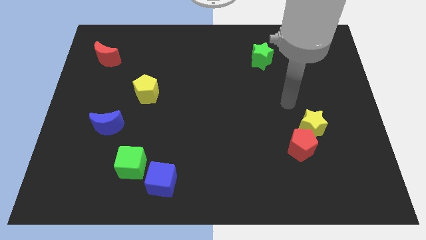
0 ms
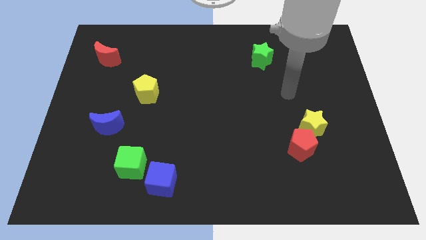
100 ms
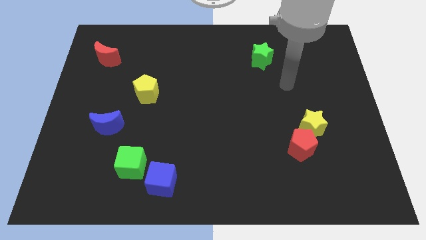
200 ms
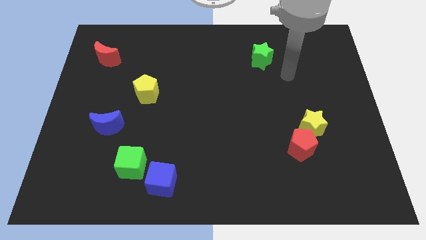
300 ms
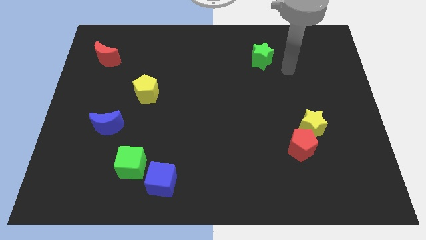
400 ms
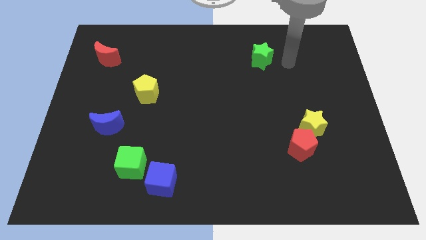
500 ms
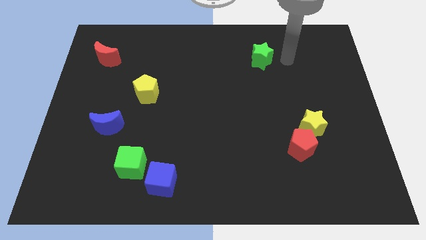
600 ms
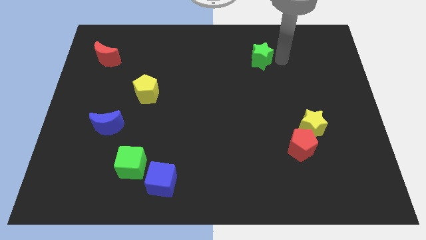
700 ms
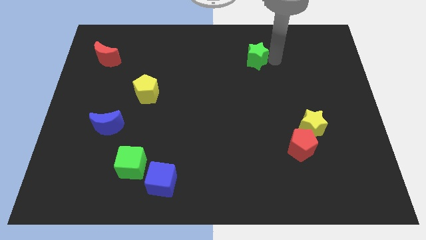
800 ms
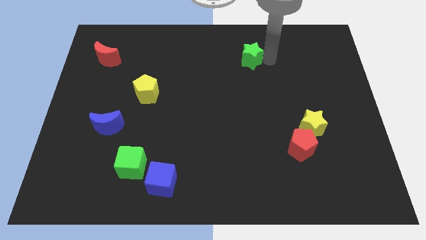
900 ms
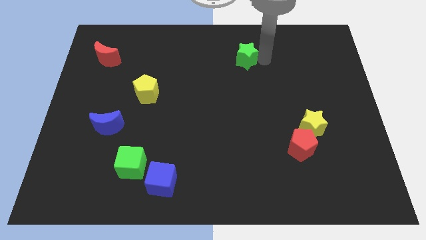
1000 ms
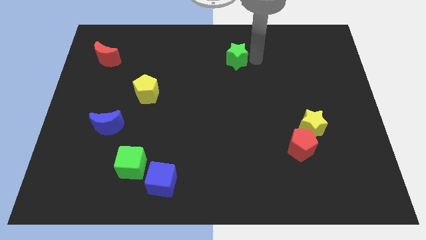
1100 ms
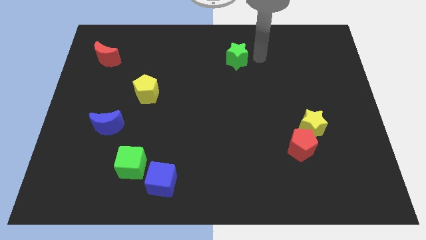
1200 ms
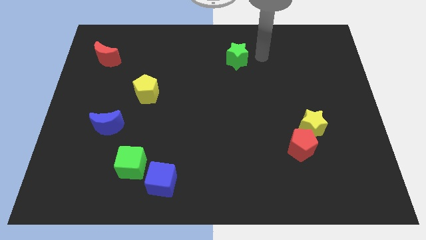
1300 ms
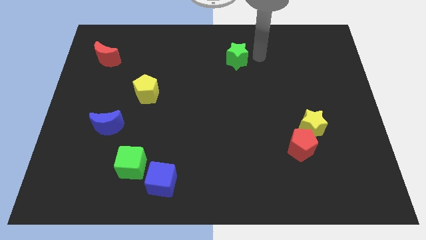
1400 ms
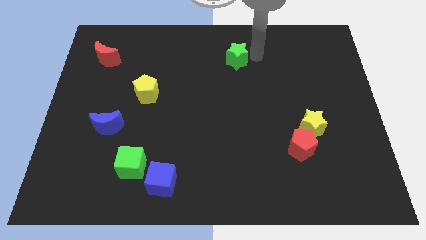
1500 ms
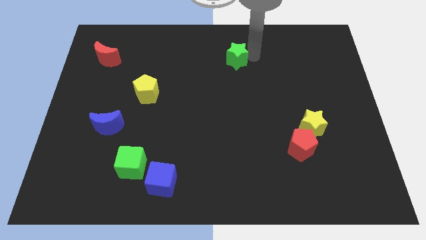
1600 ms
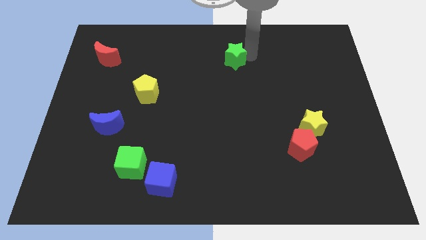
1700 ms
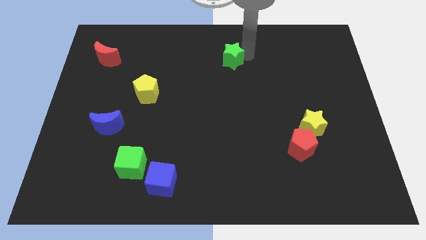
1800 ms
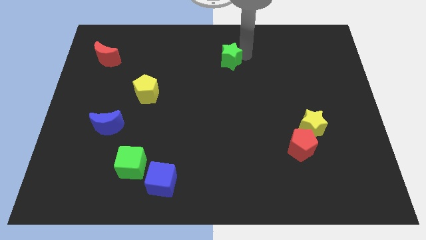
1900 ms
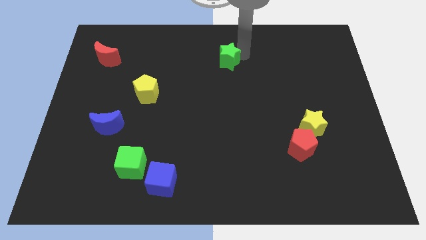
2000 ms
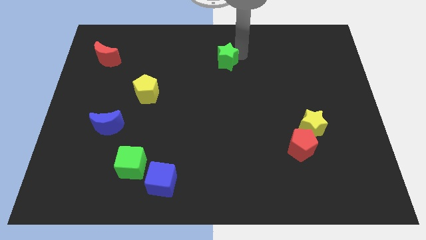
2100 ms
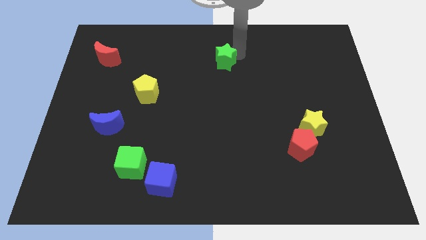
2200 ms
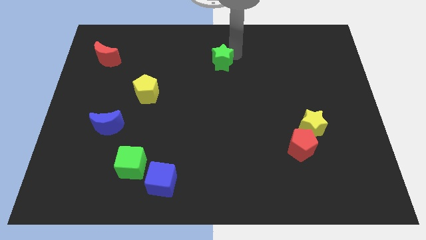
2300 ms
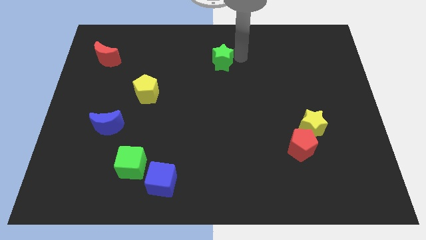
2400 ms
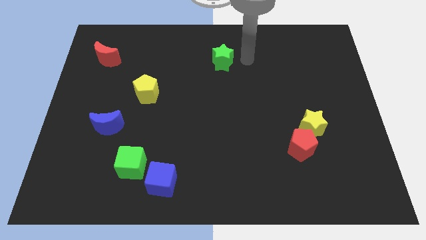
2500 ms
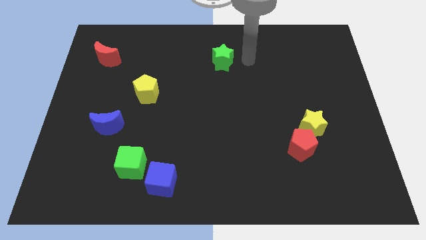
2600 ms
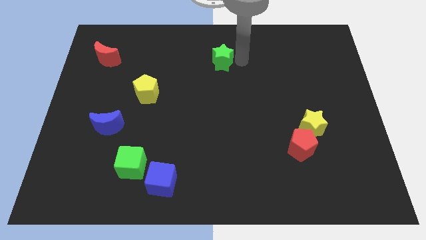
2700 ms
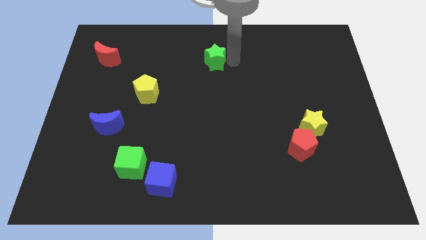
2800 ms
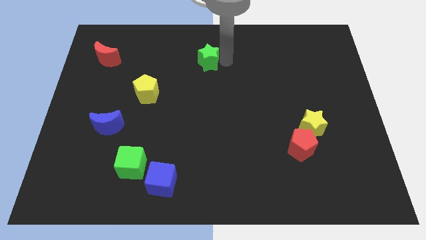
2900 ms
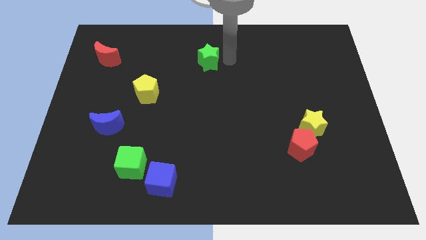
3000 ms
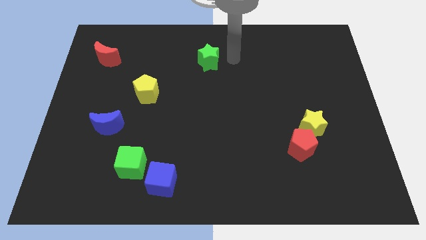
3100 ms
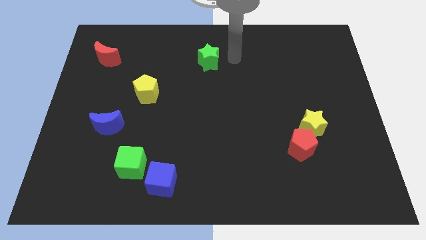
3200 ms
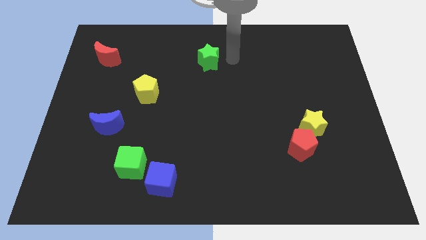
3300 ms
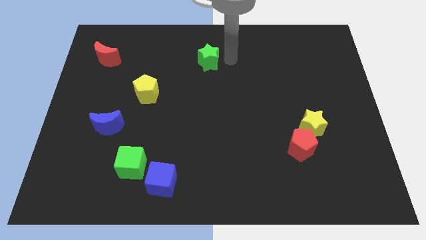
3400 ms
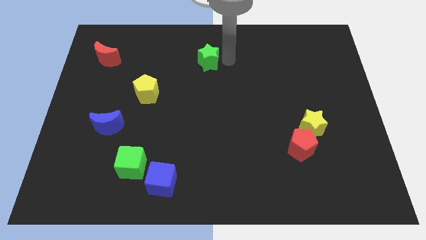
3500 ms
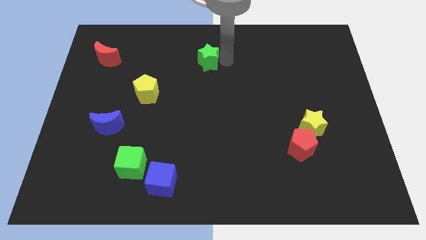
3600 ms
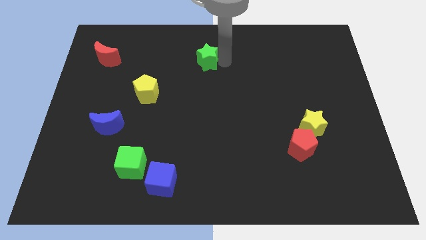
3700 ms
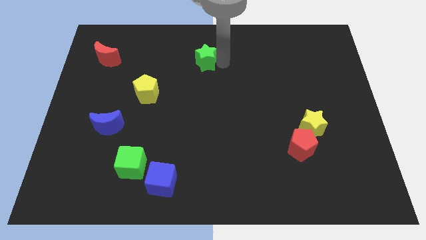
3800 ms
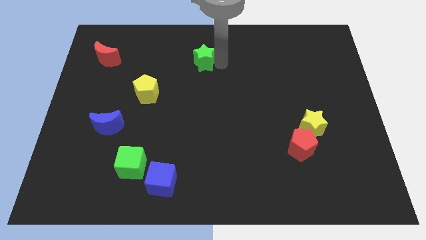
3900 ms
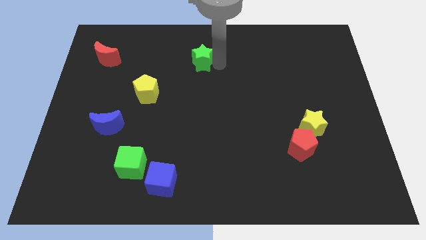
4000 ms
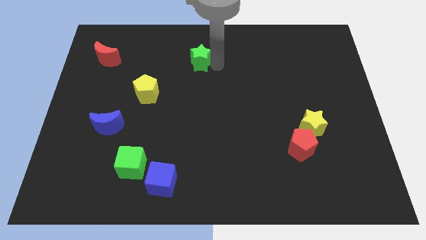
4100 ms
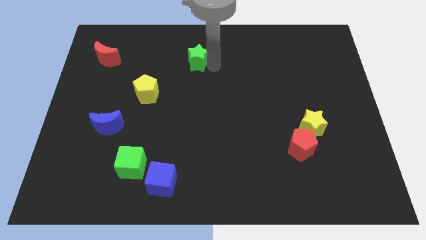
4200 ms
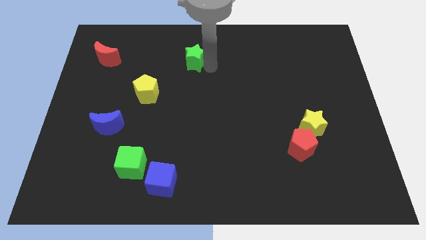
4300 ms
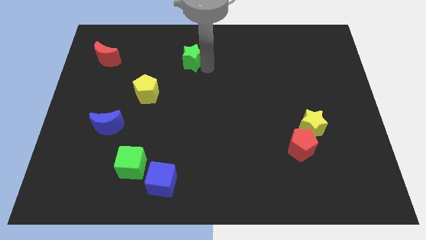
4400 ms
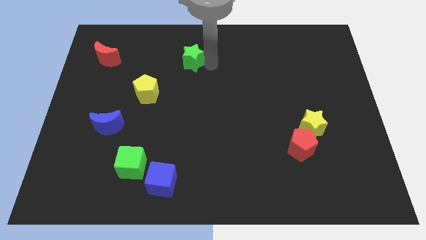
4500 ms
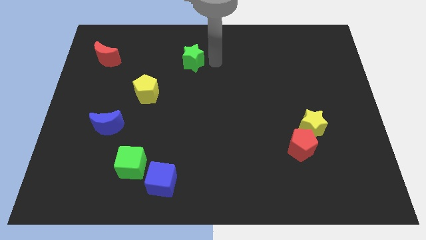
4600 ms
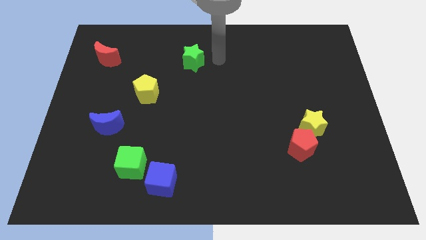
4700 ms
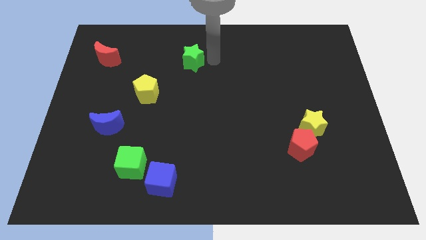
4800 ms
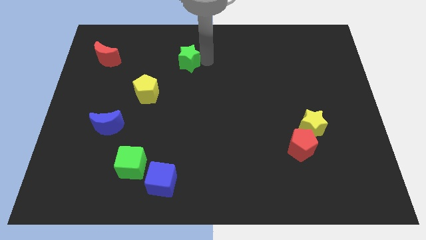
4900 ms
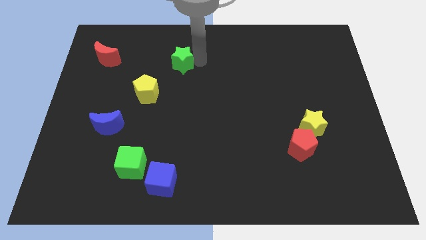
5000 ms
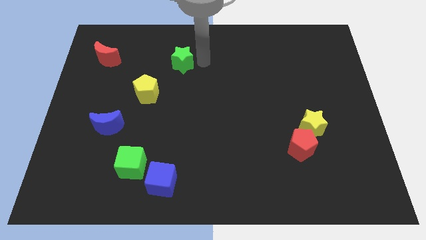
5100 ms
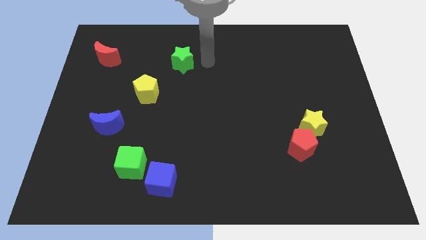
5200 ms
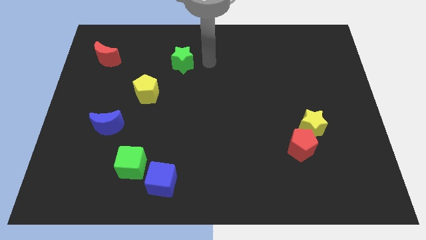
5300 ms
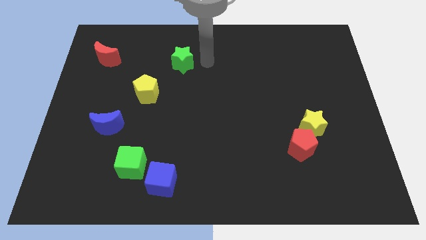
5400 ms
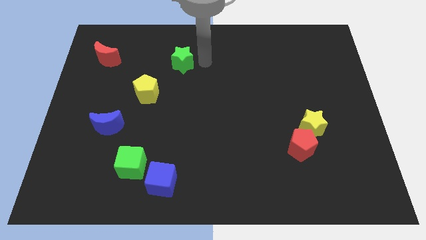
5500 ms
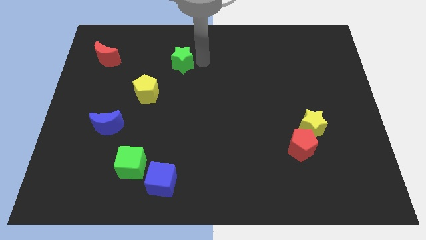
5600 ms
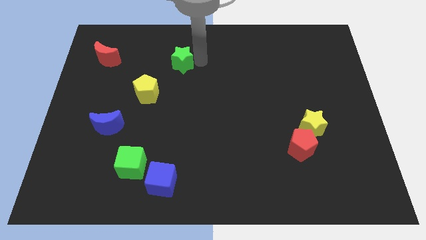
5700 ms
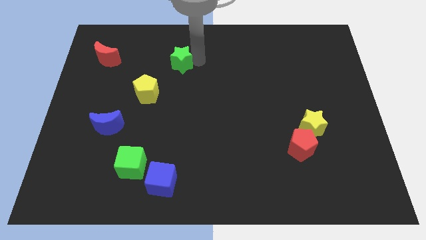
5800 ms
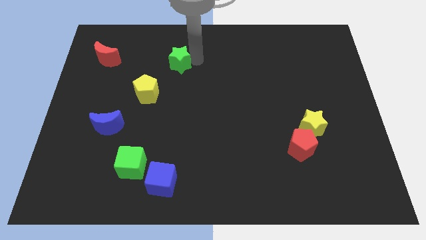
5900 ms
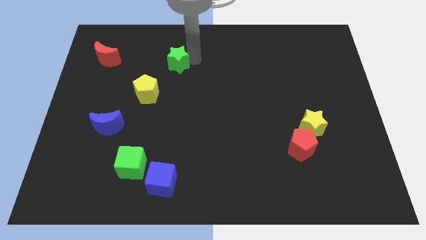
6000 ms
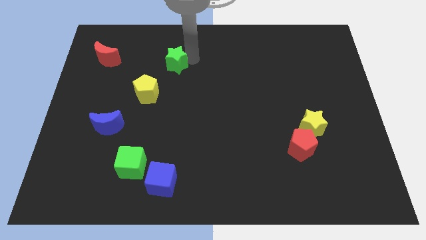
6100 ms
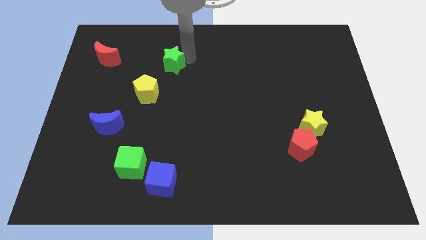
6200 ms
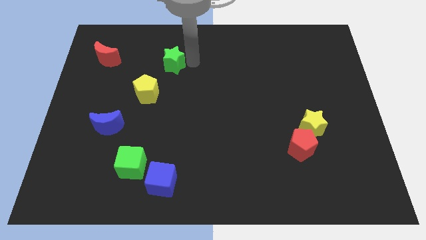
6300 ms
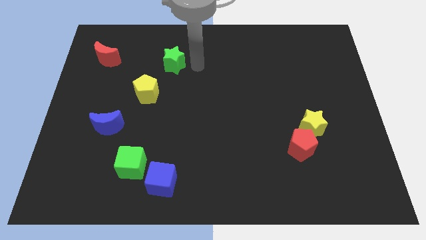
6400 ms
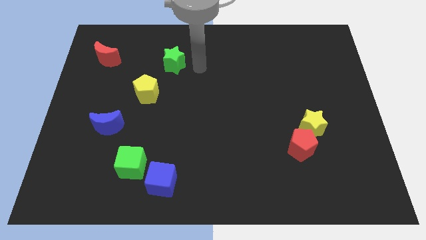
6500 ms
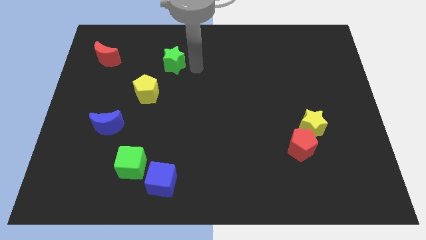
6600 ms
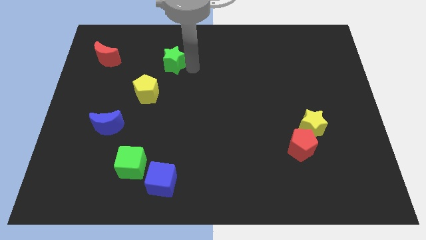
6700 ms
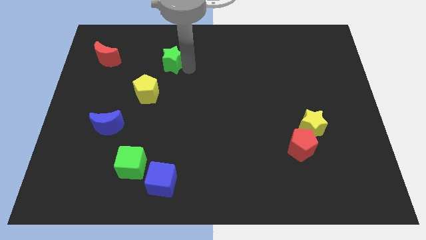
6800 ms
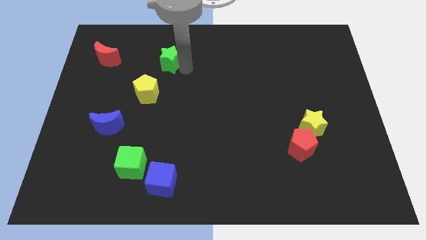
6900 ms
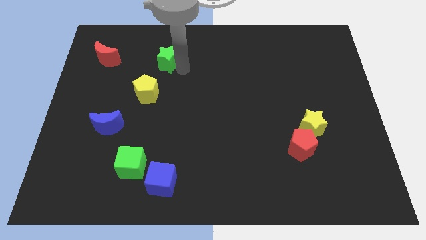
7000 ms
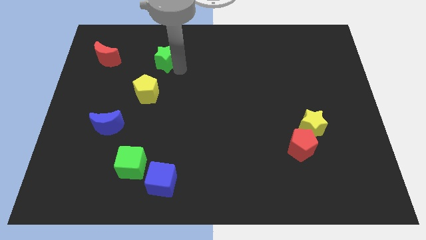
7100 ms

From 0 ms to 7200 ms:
move the green star to the right of the red moon
